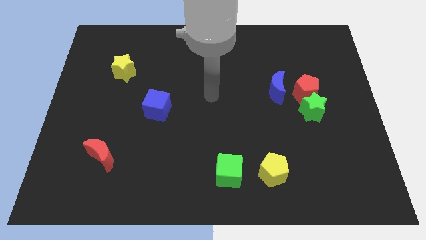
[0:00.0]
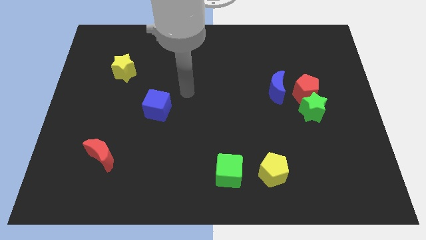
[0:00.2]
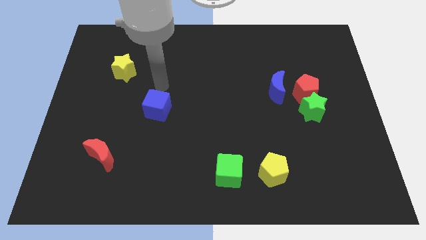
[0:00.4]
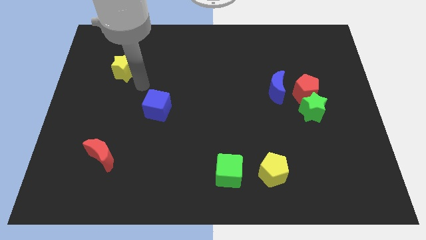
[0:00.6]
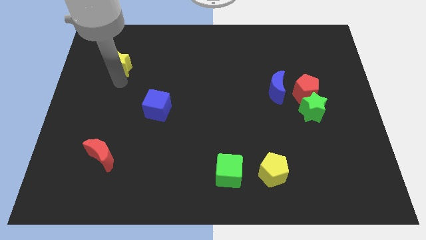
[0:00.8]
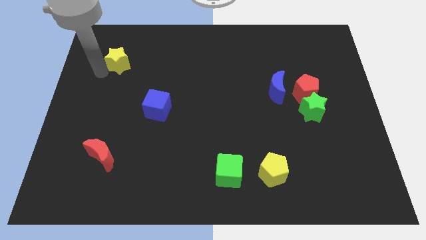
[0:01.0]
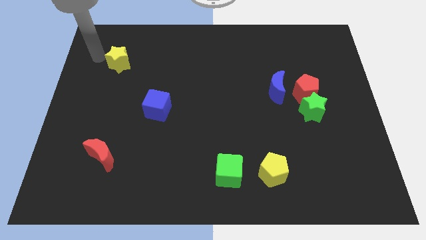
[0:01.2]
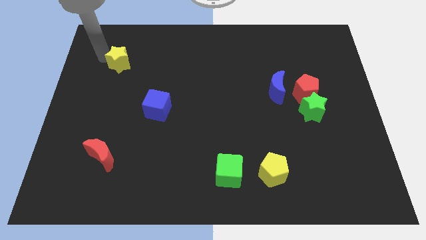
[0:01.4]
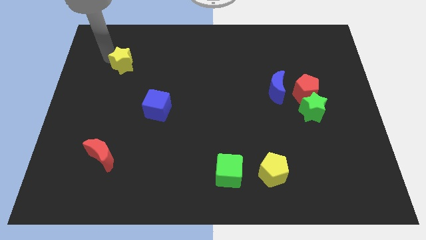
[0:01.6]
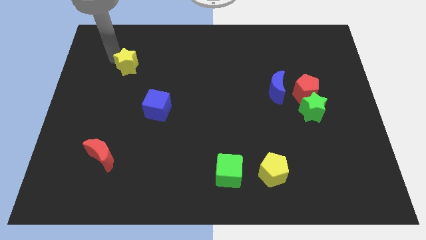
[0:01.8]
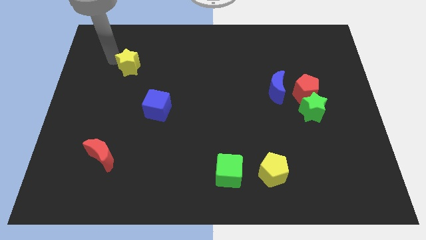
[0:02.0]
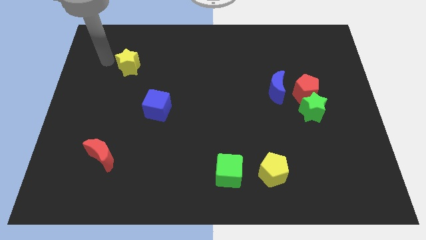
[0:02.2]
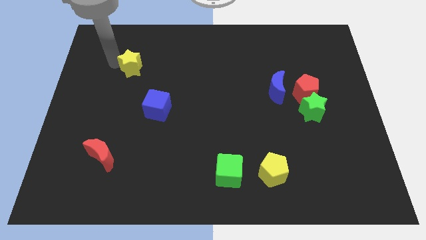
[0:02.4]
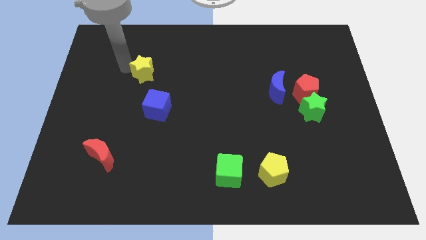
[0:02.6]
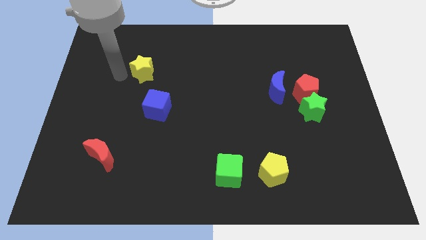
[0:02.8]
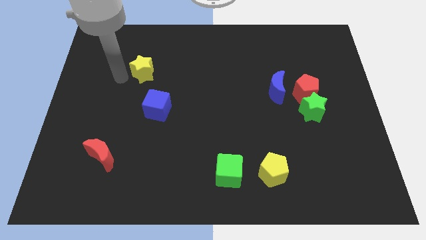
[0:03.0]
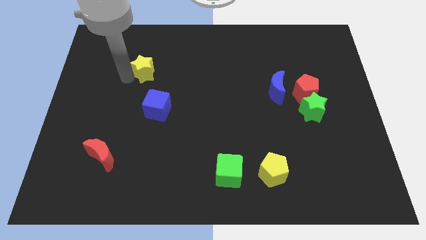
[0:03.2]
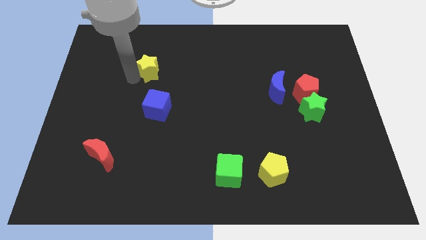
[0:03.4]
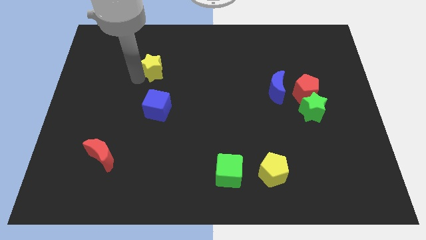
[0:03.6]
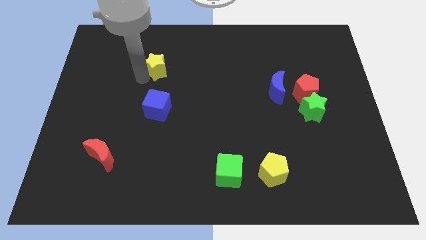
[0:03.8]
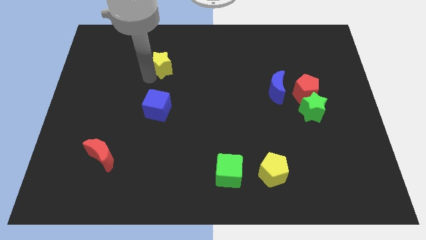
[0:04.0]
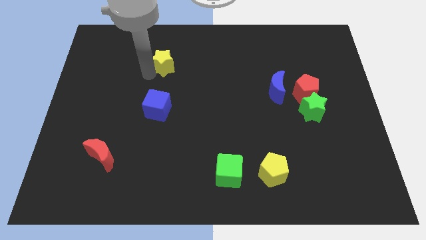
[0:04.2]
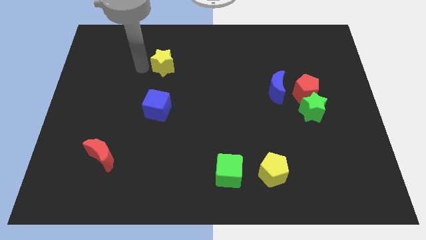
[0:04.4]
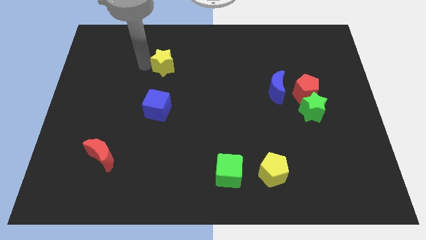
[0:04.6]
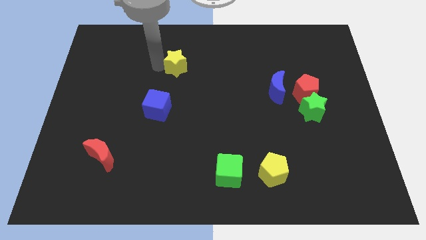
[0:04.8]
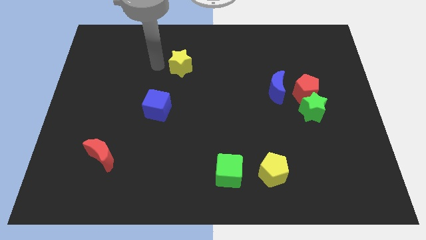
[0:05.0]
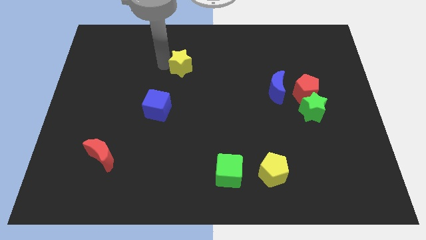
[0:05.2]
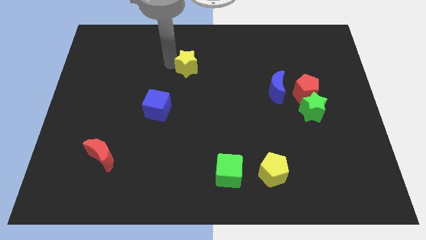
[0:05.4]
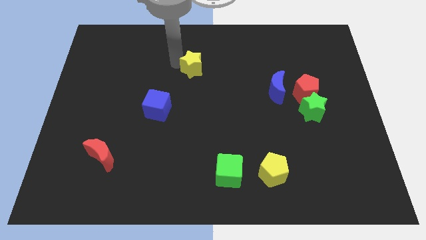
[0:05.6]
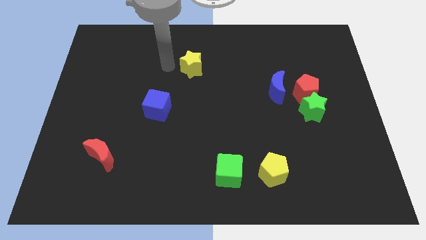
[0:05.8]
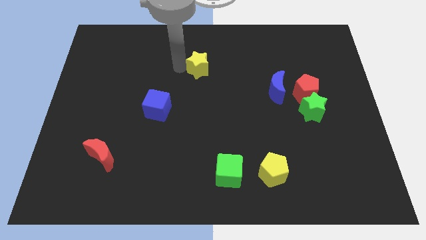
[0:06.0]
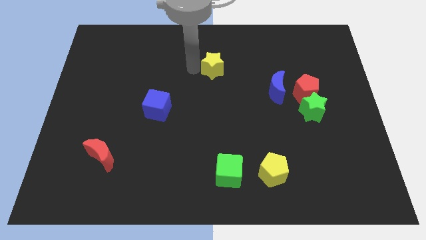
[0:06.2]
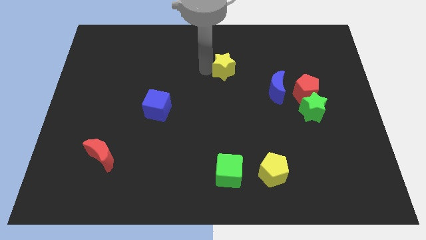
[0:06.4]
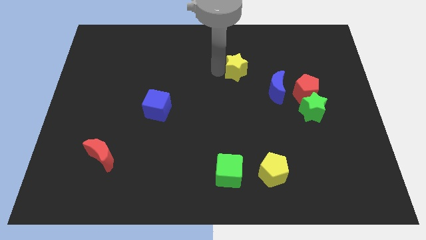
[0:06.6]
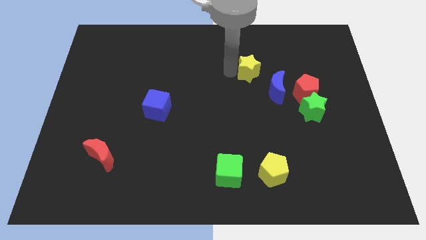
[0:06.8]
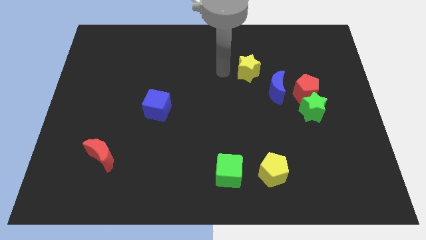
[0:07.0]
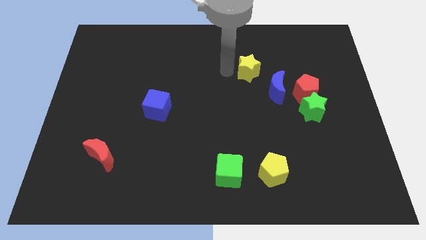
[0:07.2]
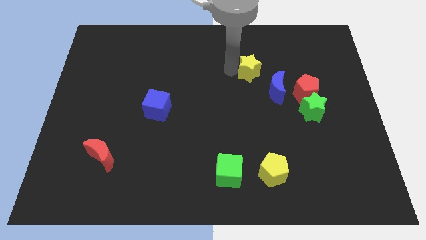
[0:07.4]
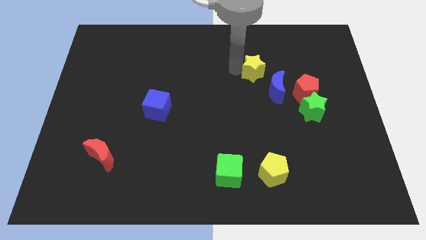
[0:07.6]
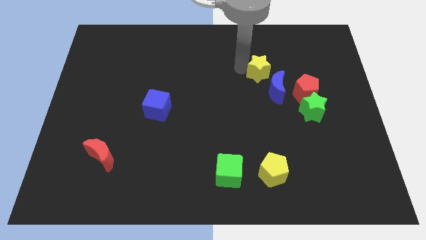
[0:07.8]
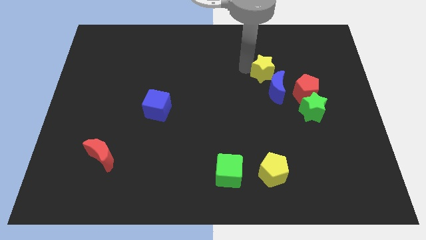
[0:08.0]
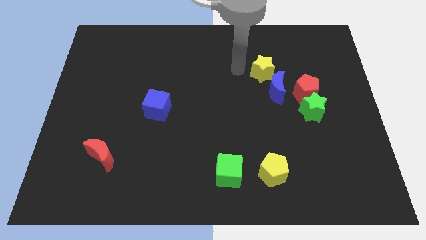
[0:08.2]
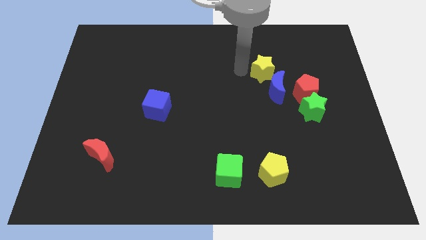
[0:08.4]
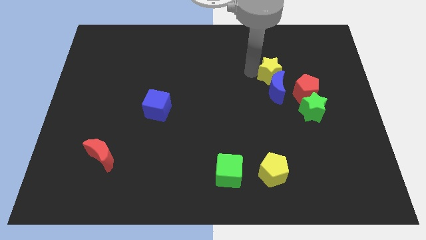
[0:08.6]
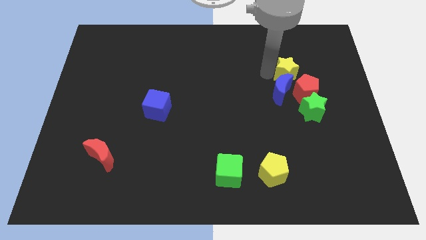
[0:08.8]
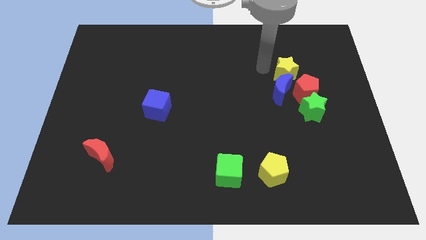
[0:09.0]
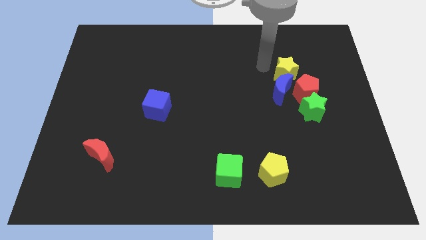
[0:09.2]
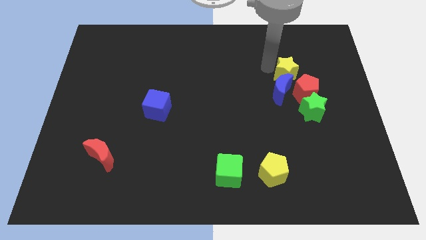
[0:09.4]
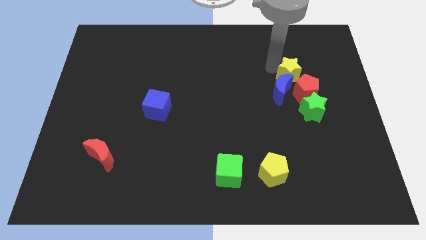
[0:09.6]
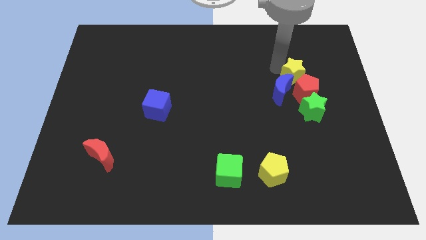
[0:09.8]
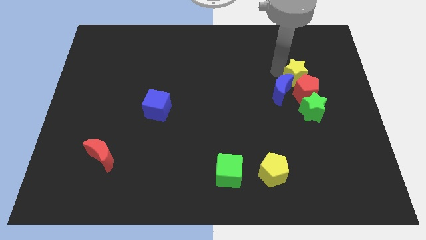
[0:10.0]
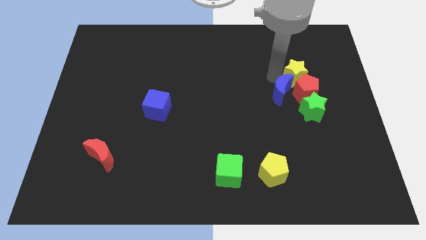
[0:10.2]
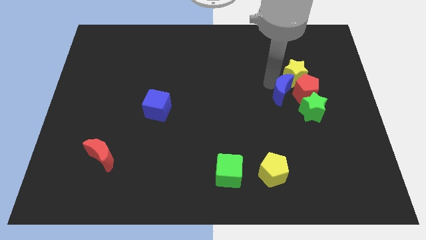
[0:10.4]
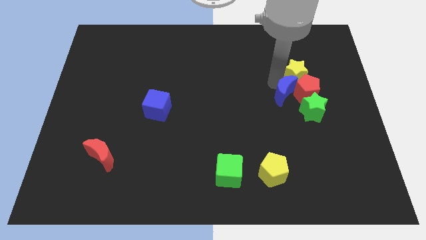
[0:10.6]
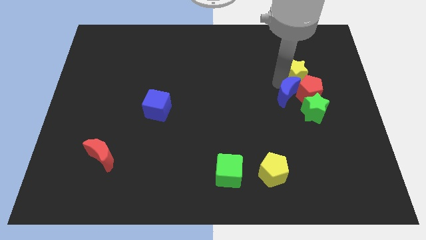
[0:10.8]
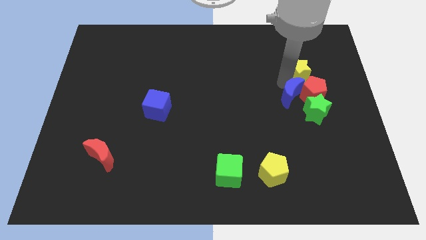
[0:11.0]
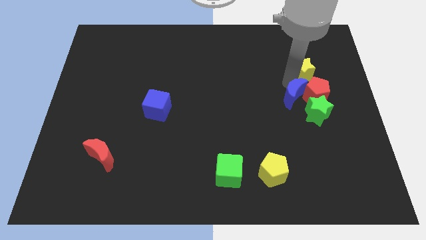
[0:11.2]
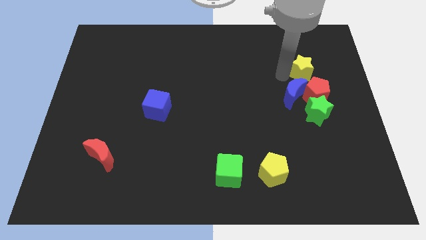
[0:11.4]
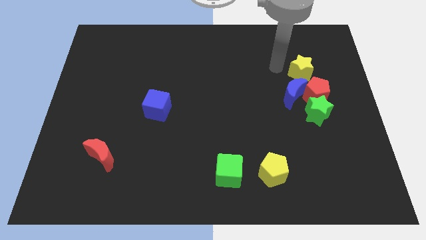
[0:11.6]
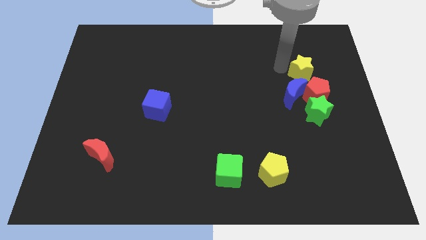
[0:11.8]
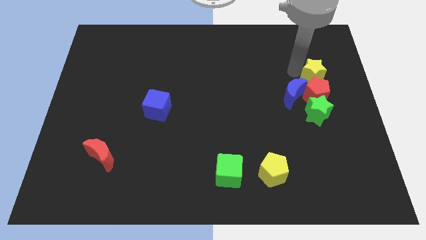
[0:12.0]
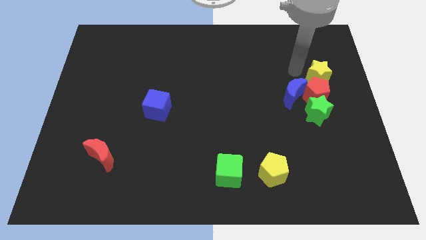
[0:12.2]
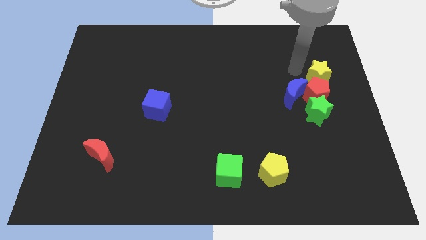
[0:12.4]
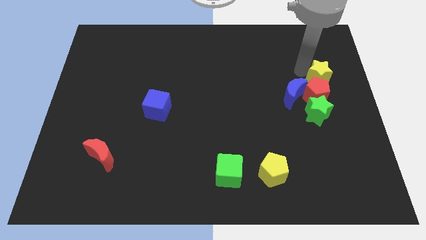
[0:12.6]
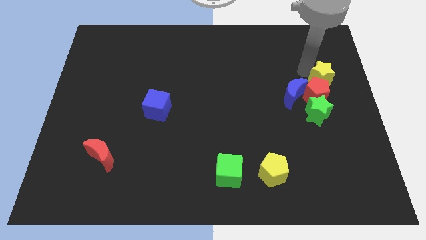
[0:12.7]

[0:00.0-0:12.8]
put the yellow star to the right side
